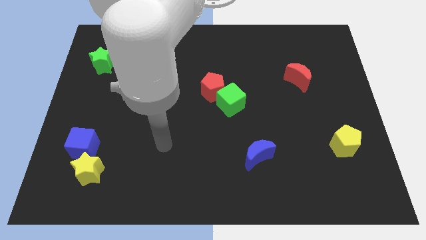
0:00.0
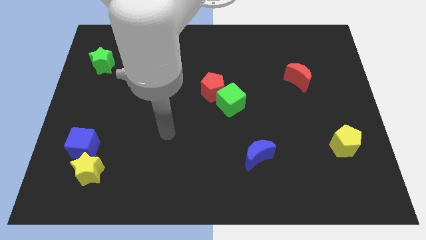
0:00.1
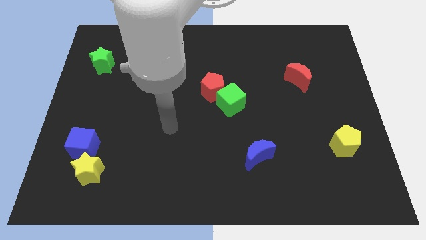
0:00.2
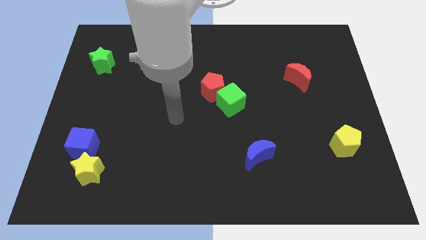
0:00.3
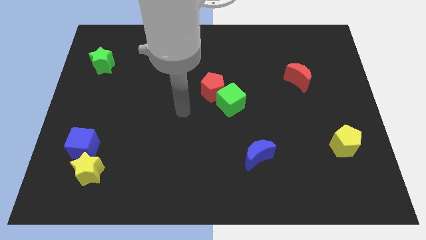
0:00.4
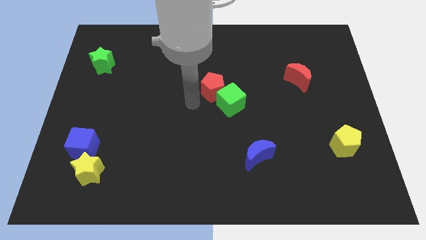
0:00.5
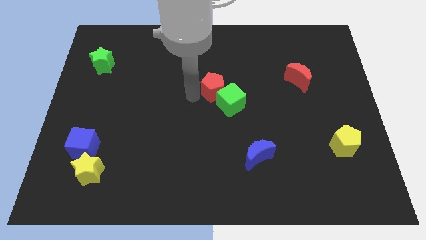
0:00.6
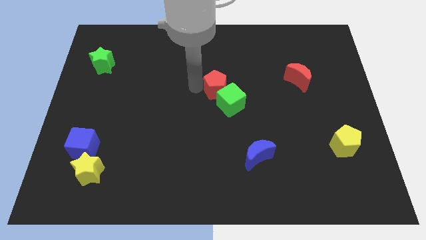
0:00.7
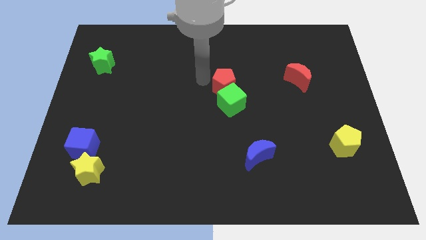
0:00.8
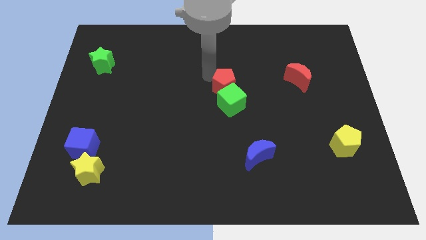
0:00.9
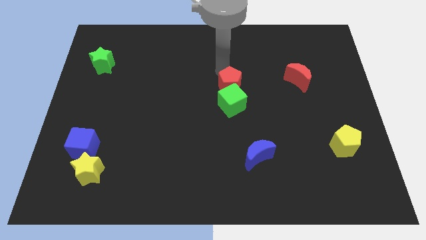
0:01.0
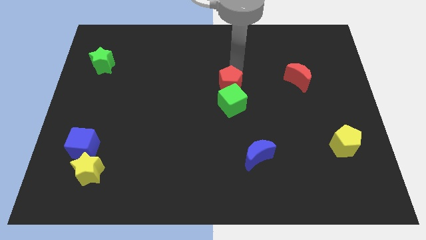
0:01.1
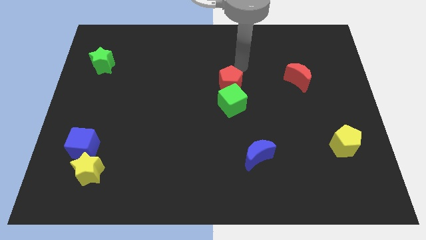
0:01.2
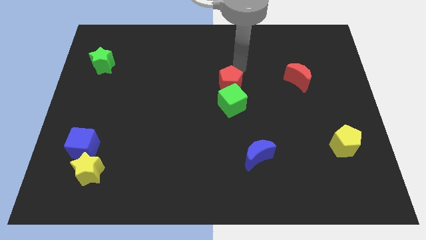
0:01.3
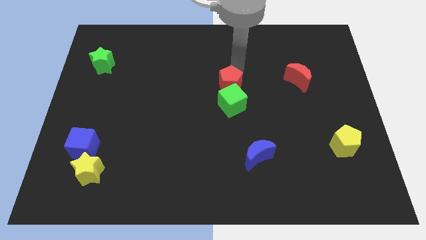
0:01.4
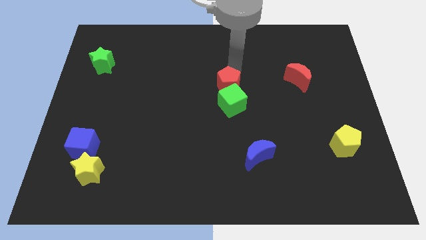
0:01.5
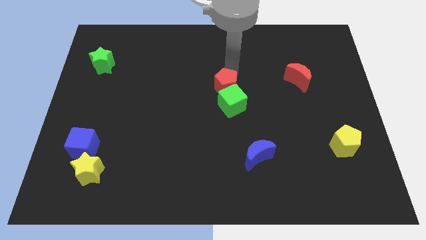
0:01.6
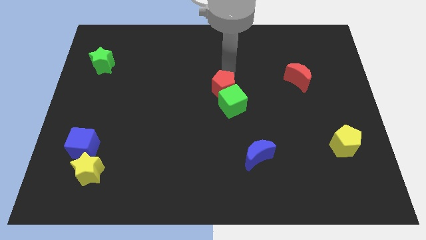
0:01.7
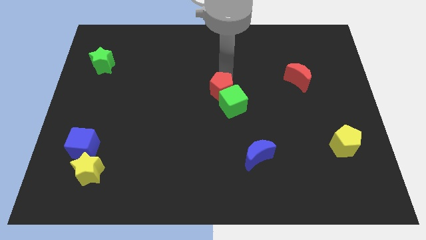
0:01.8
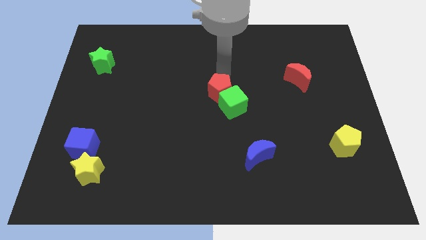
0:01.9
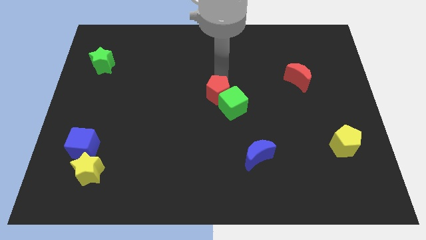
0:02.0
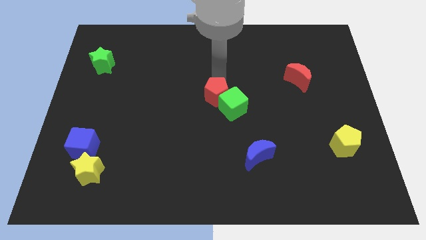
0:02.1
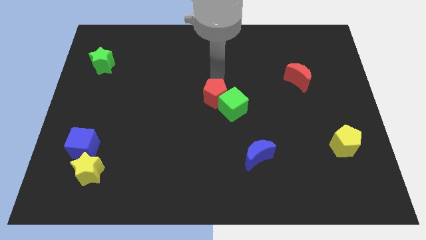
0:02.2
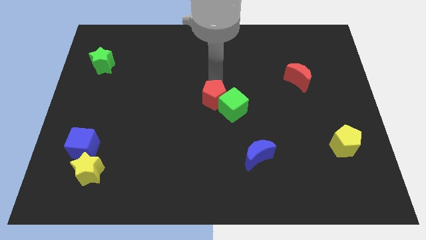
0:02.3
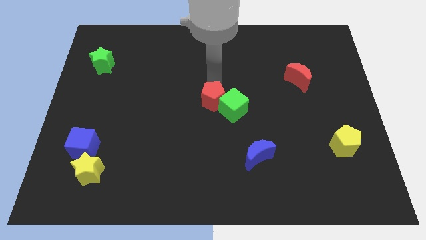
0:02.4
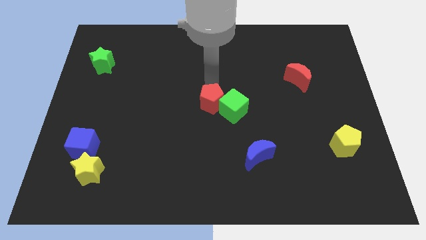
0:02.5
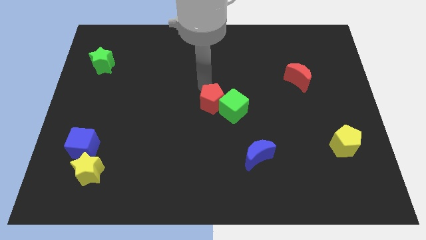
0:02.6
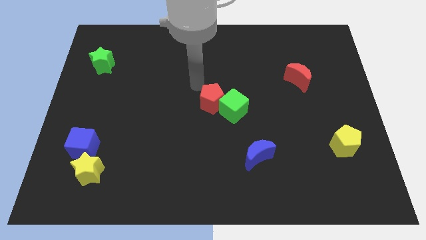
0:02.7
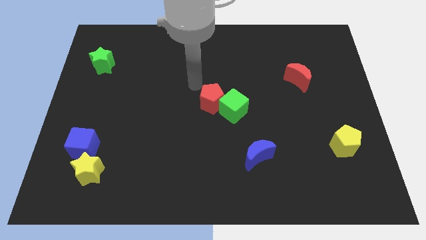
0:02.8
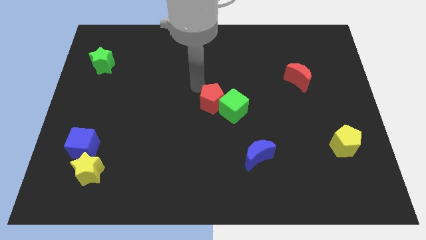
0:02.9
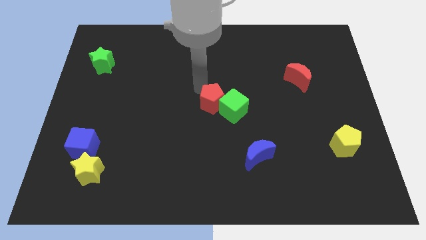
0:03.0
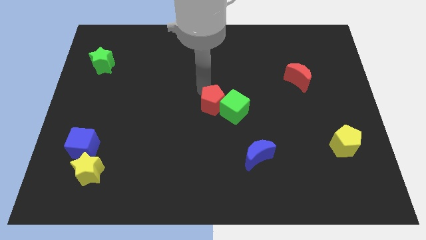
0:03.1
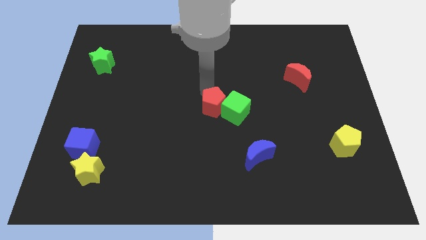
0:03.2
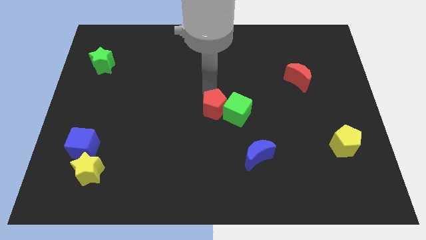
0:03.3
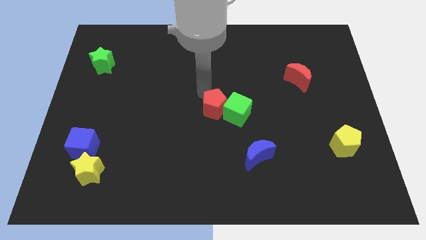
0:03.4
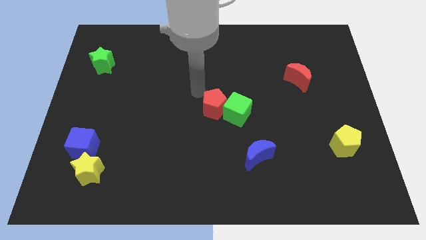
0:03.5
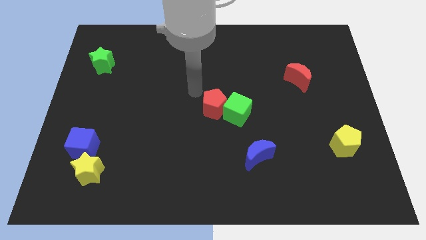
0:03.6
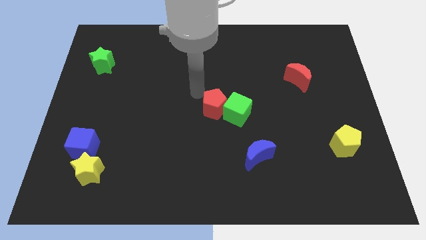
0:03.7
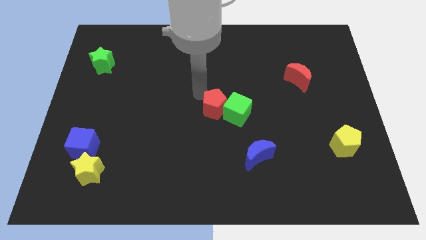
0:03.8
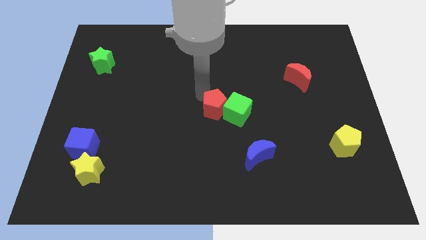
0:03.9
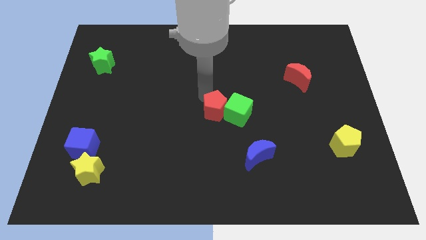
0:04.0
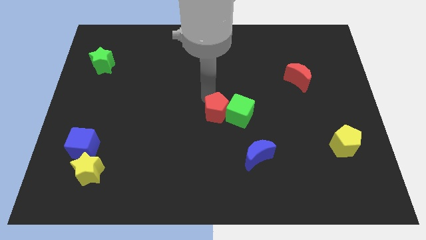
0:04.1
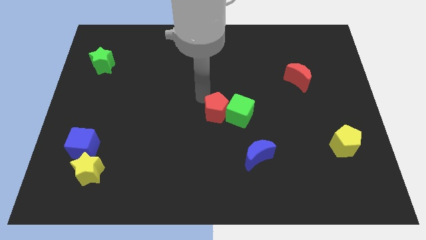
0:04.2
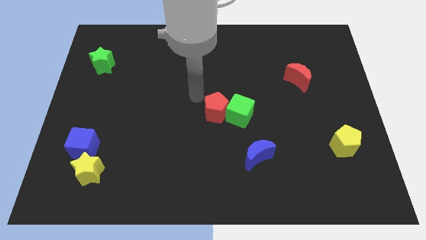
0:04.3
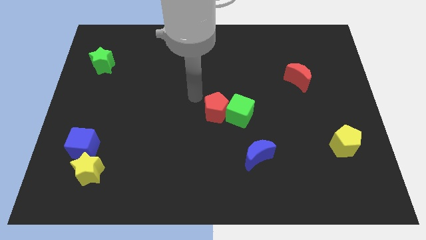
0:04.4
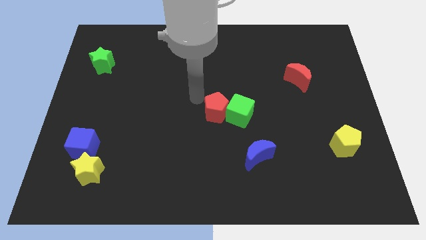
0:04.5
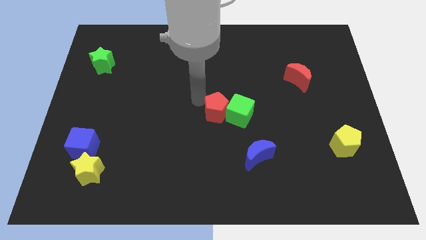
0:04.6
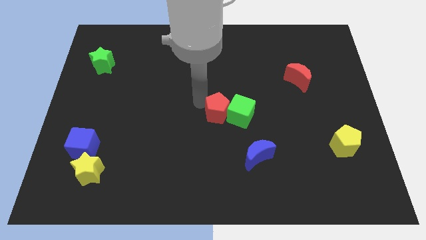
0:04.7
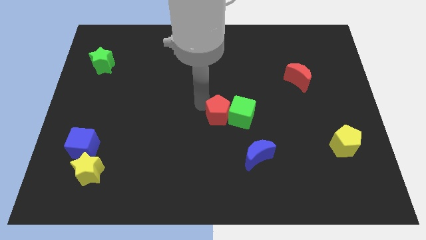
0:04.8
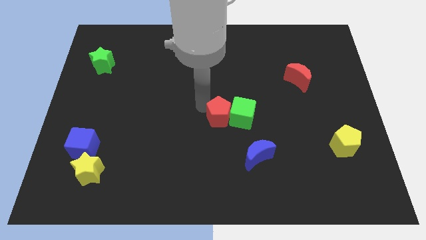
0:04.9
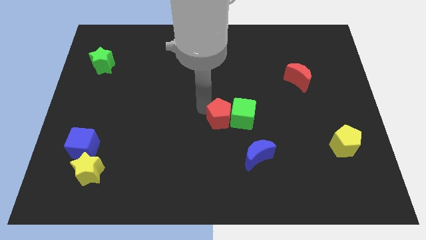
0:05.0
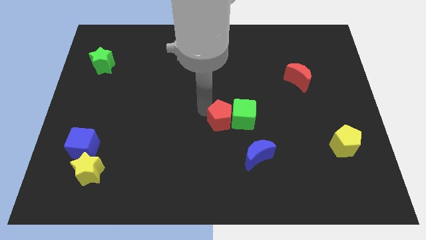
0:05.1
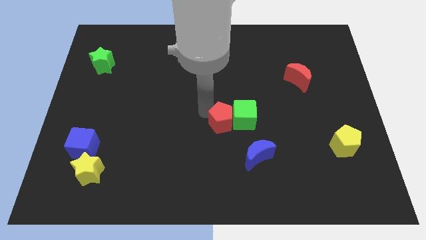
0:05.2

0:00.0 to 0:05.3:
move the red pentagon slightly downwards and then right

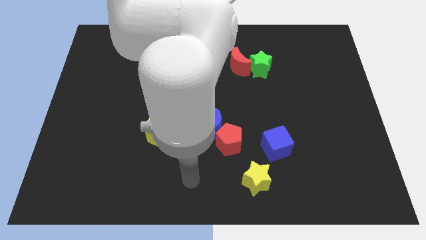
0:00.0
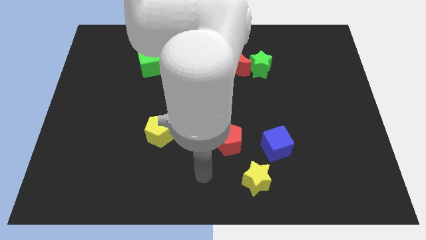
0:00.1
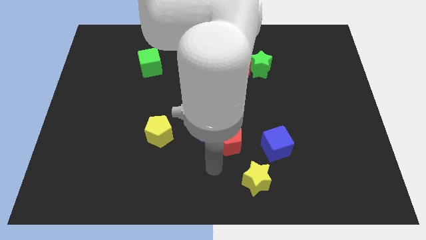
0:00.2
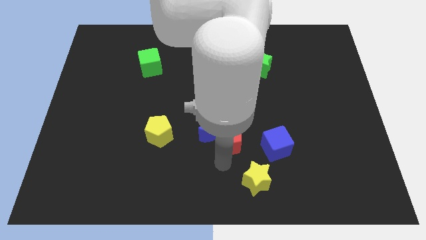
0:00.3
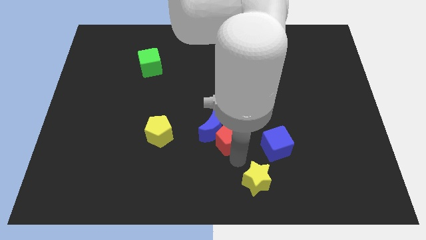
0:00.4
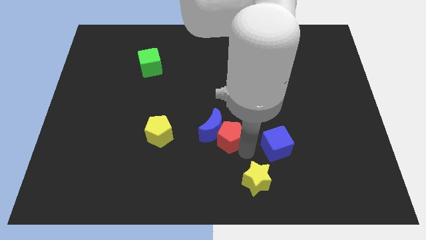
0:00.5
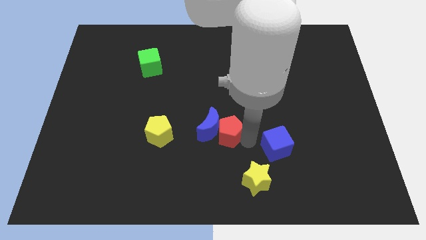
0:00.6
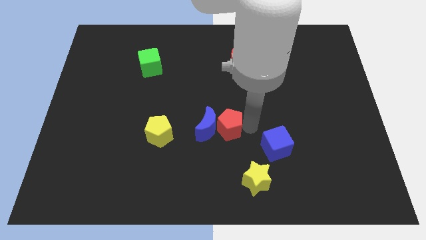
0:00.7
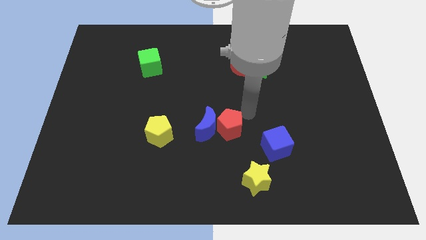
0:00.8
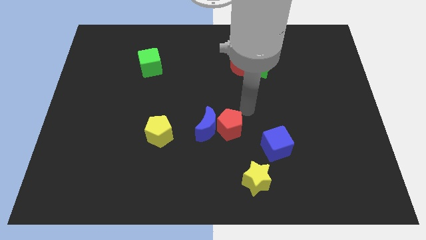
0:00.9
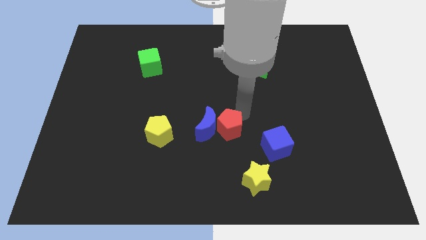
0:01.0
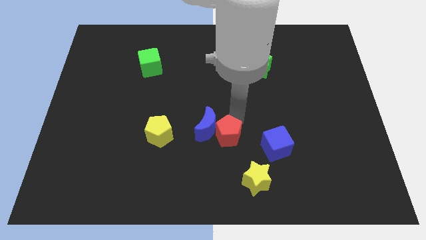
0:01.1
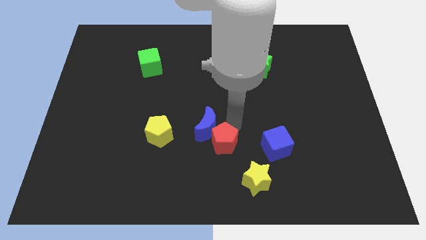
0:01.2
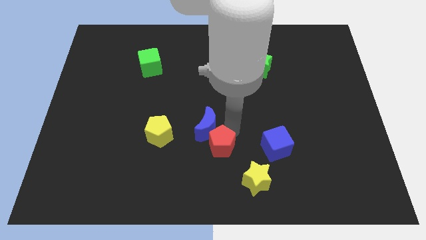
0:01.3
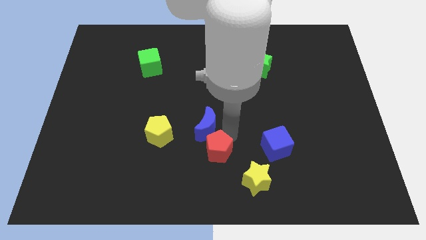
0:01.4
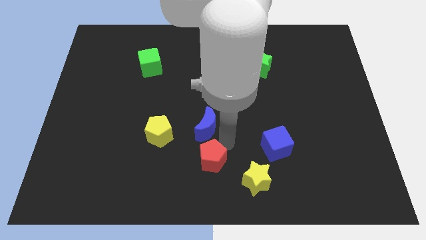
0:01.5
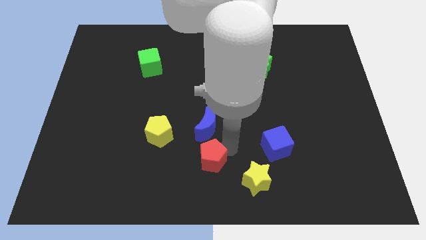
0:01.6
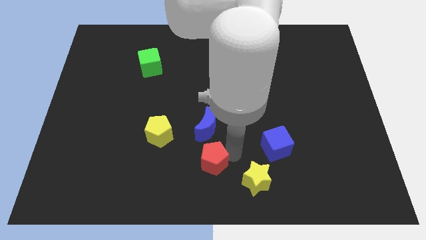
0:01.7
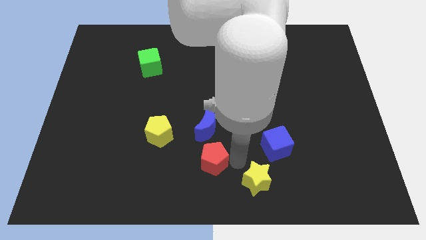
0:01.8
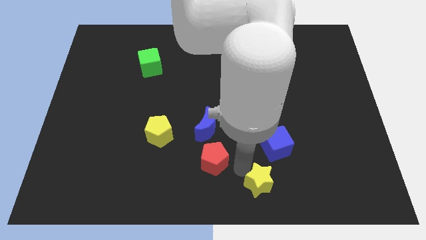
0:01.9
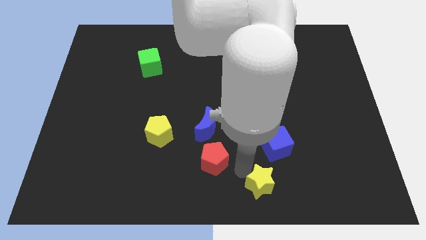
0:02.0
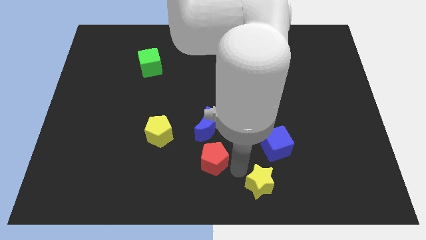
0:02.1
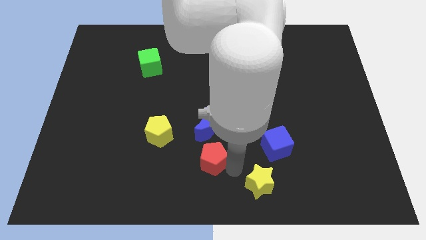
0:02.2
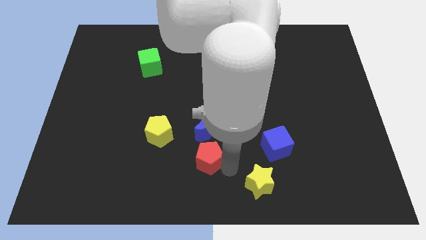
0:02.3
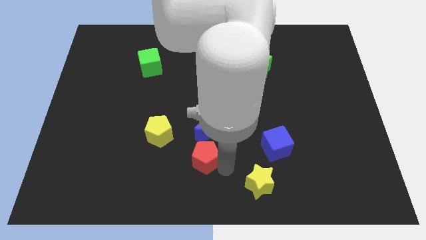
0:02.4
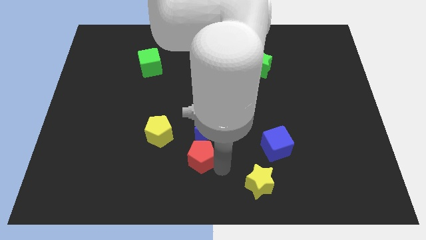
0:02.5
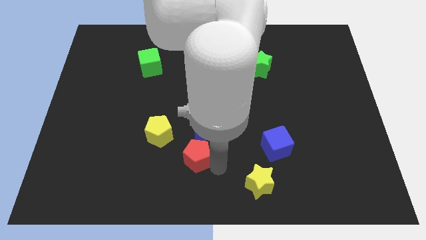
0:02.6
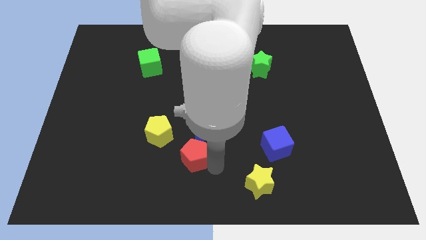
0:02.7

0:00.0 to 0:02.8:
move the red pentagon a bit to the left
